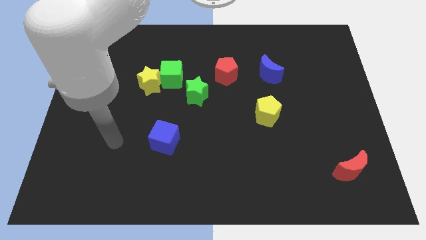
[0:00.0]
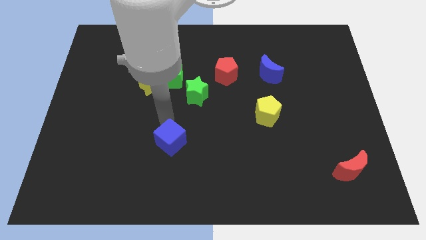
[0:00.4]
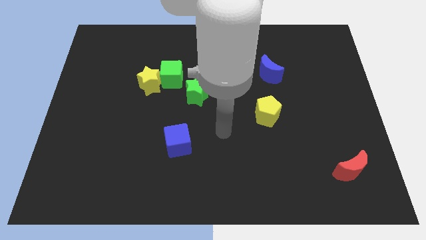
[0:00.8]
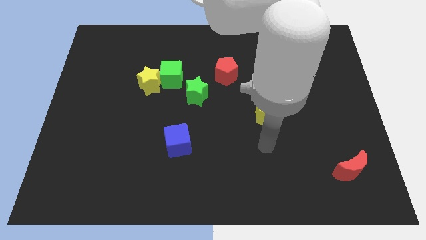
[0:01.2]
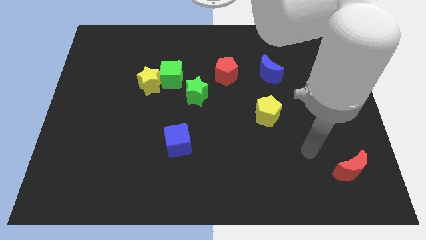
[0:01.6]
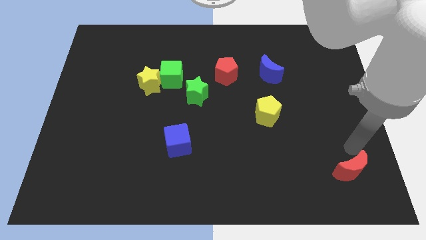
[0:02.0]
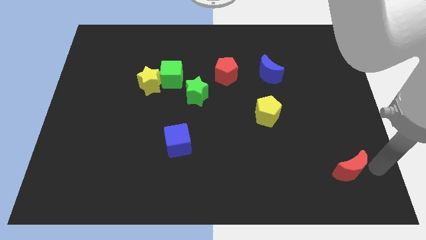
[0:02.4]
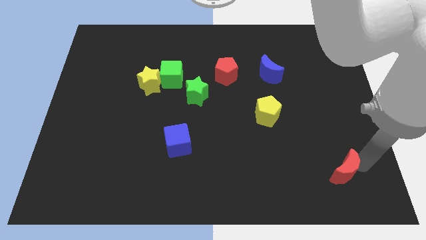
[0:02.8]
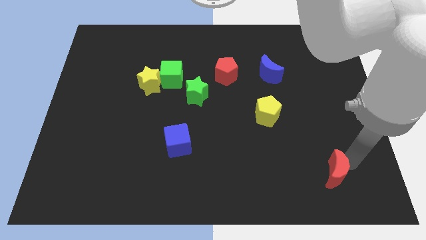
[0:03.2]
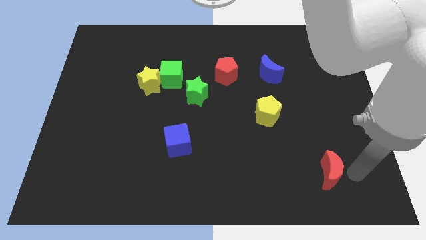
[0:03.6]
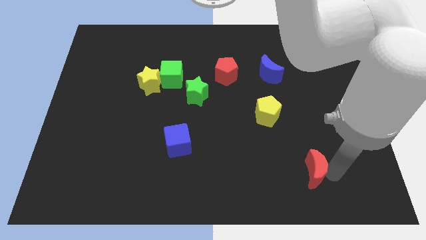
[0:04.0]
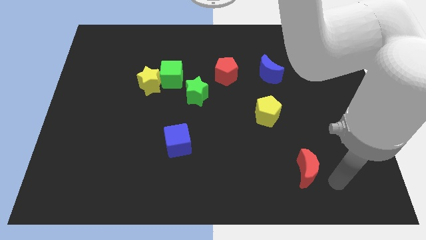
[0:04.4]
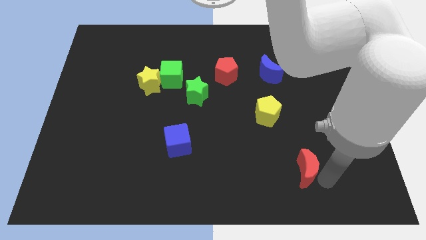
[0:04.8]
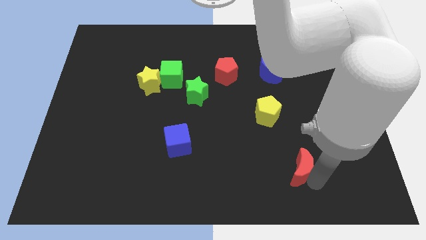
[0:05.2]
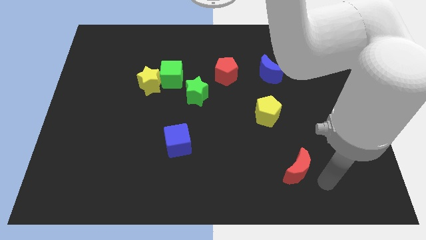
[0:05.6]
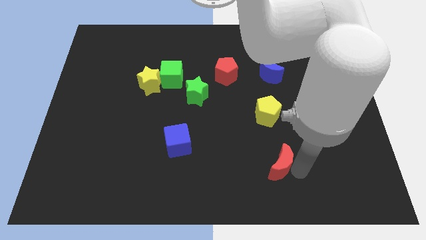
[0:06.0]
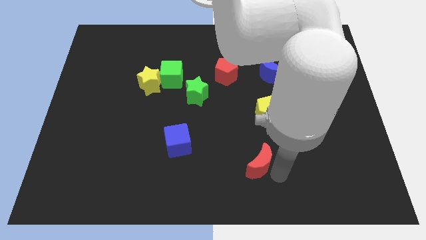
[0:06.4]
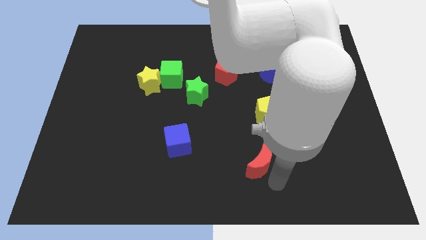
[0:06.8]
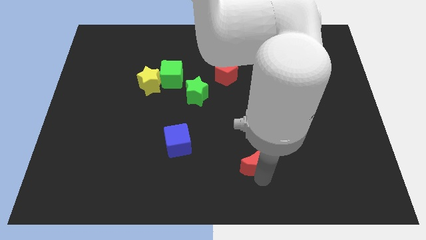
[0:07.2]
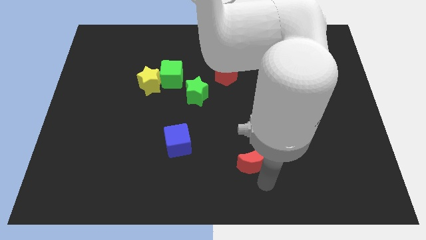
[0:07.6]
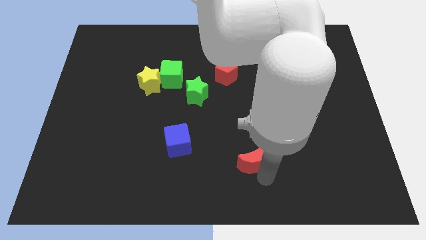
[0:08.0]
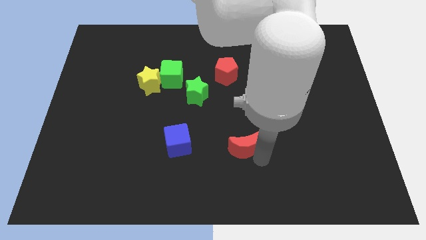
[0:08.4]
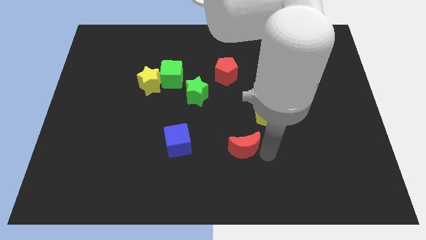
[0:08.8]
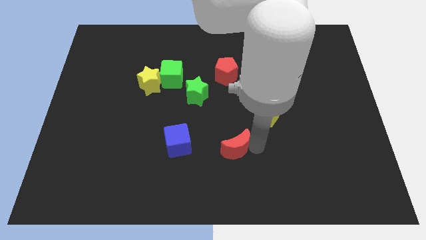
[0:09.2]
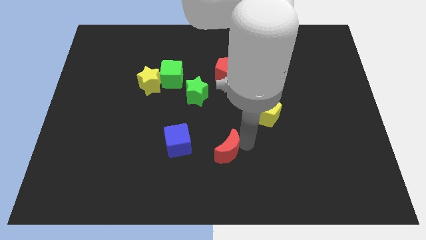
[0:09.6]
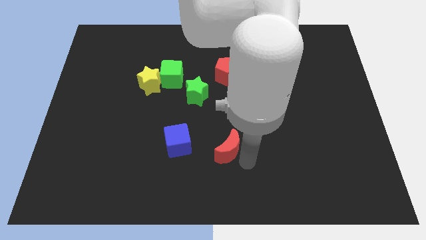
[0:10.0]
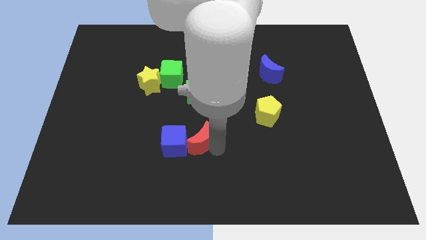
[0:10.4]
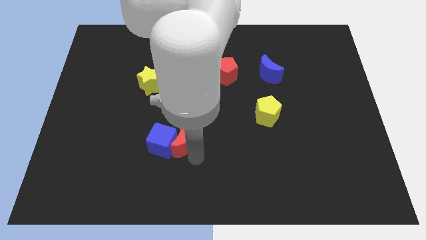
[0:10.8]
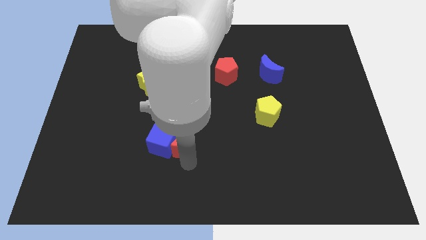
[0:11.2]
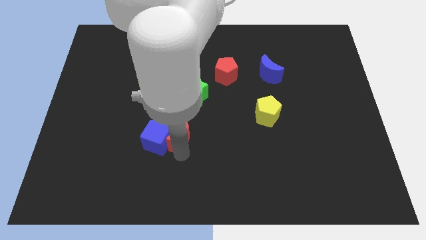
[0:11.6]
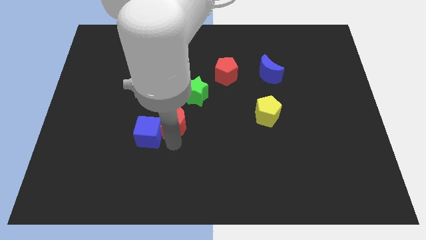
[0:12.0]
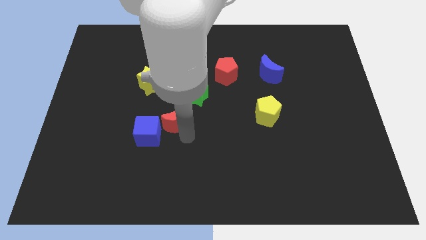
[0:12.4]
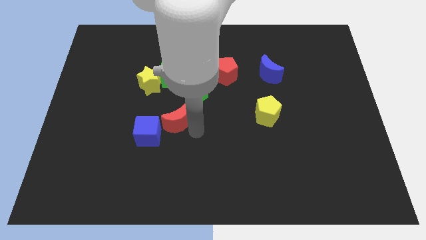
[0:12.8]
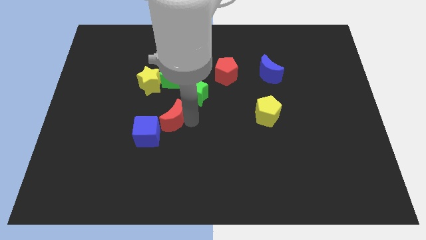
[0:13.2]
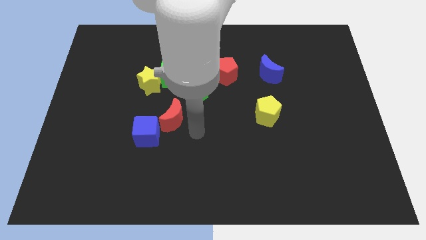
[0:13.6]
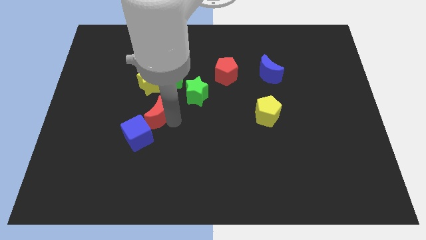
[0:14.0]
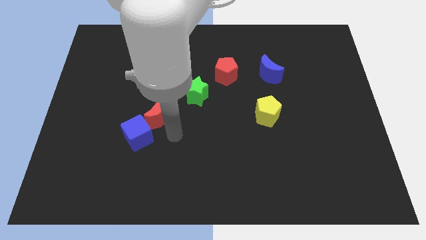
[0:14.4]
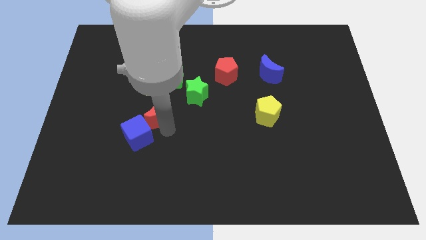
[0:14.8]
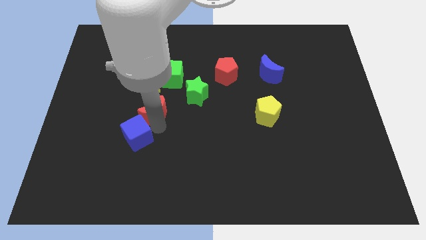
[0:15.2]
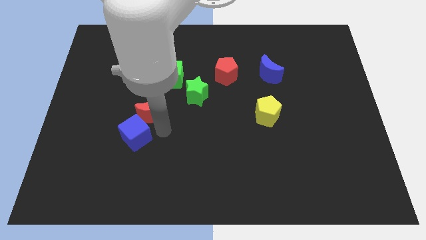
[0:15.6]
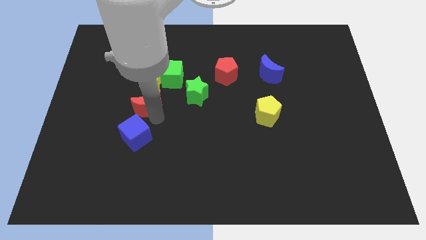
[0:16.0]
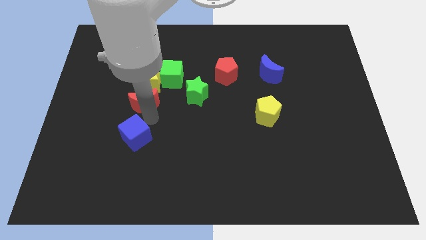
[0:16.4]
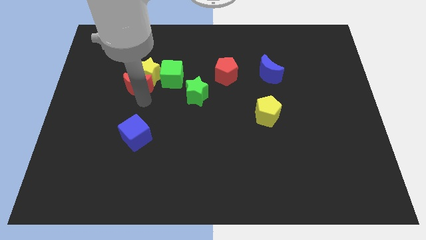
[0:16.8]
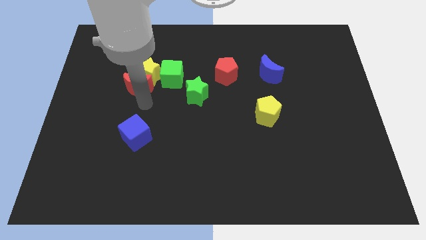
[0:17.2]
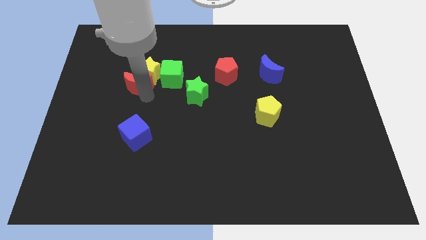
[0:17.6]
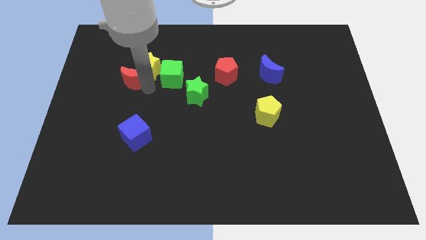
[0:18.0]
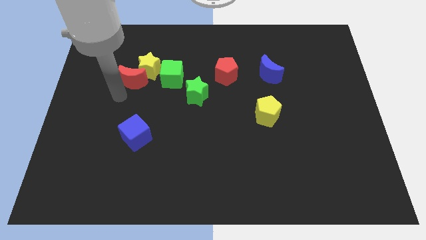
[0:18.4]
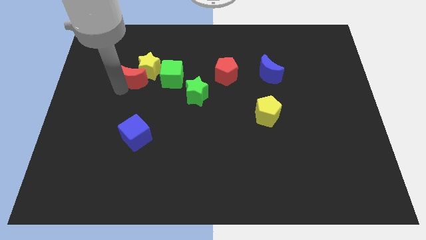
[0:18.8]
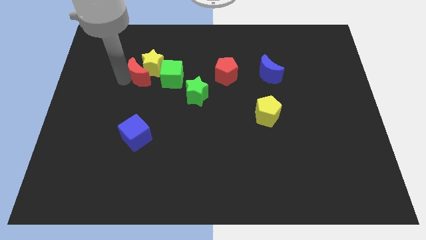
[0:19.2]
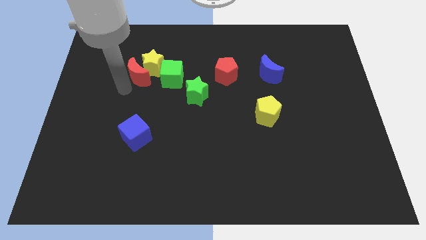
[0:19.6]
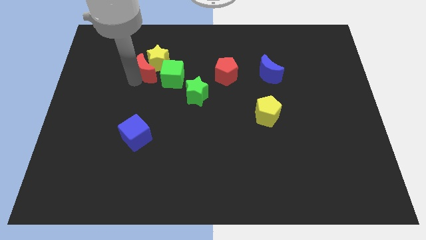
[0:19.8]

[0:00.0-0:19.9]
slide the red moon diagonally up and to the left of the green cube

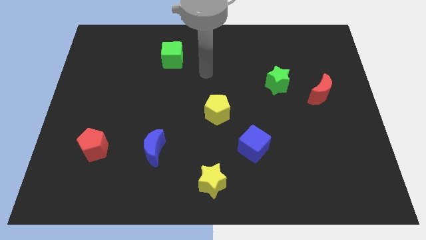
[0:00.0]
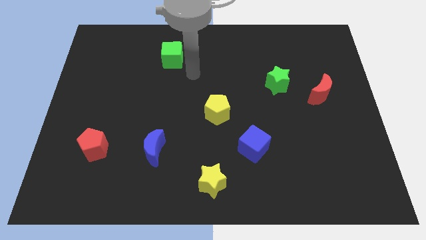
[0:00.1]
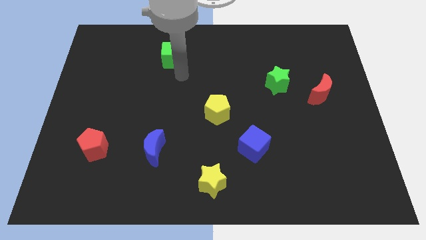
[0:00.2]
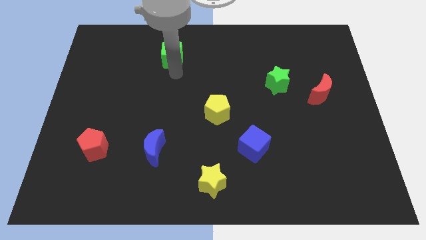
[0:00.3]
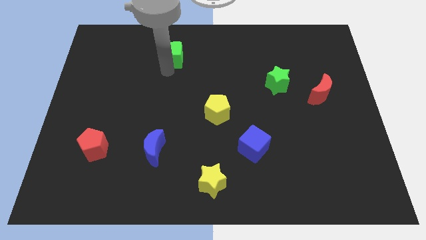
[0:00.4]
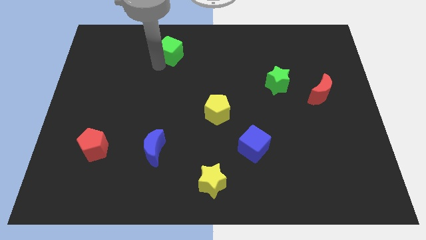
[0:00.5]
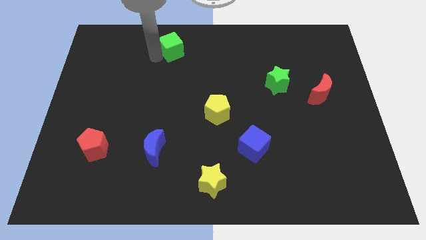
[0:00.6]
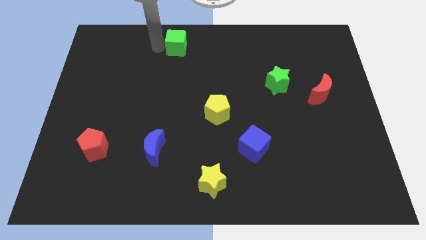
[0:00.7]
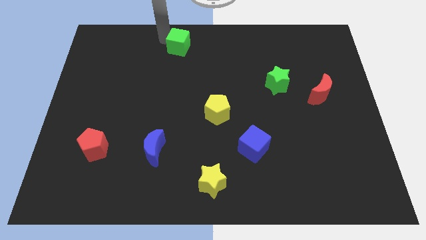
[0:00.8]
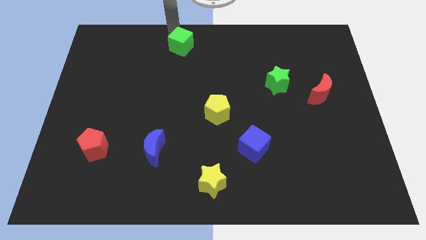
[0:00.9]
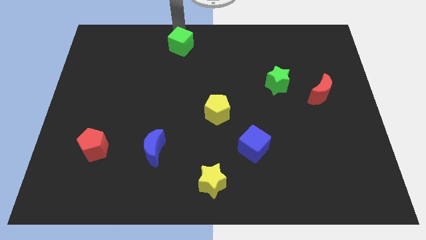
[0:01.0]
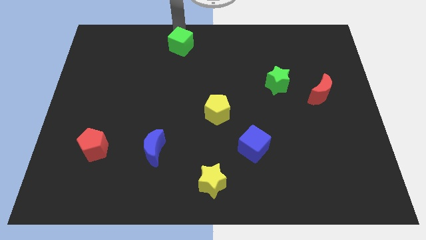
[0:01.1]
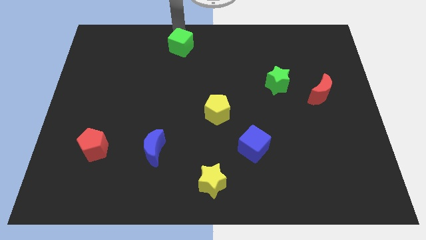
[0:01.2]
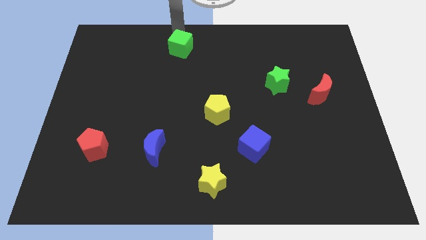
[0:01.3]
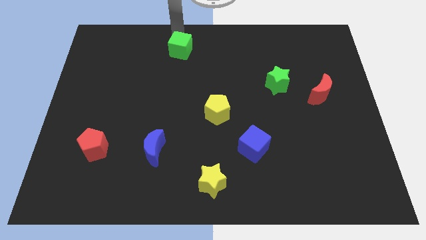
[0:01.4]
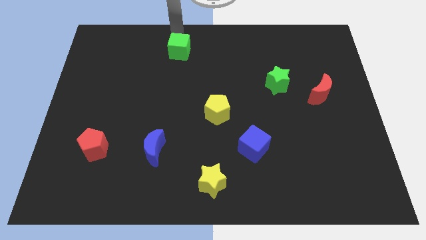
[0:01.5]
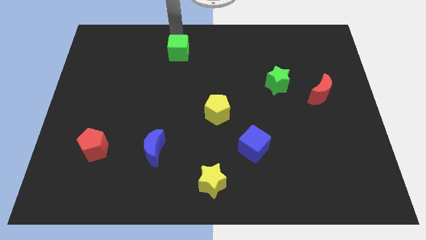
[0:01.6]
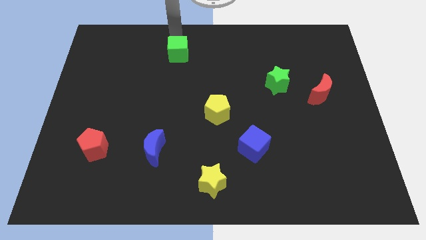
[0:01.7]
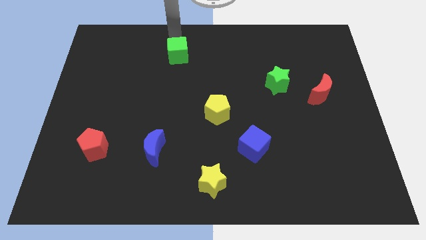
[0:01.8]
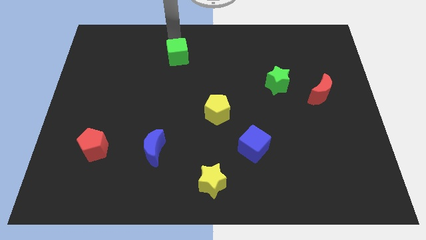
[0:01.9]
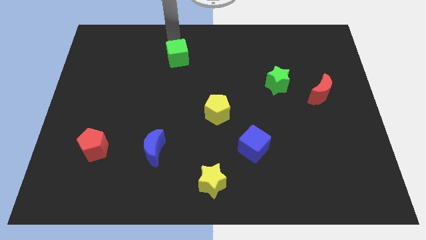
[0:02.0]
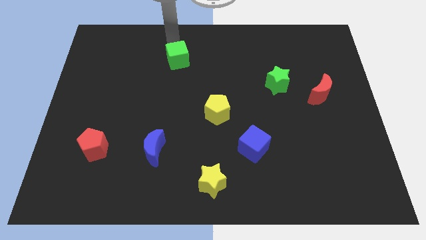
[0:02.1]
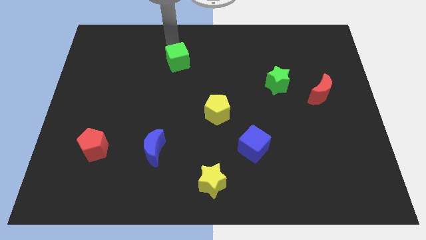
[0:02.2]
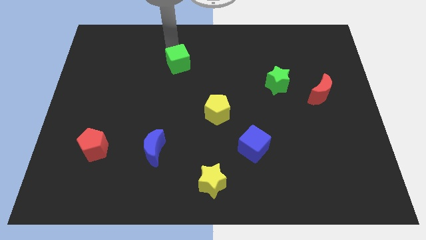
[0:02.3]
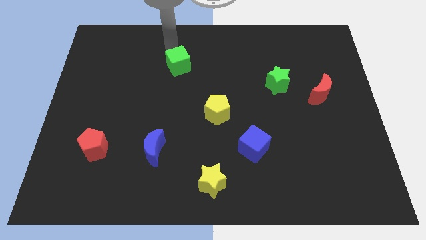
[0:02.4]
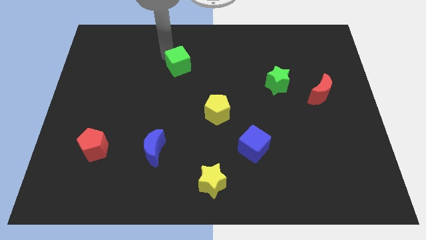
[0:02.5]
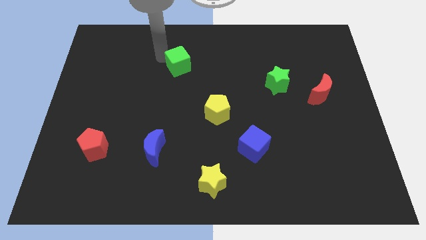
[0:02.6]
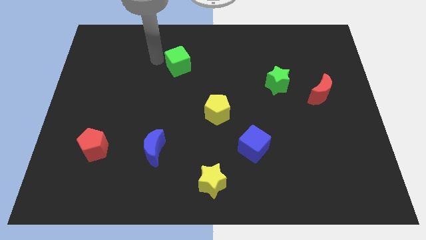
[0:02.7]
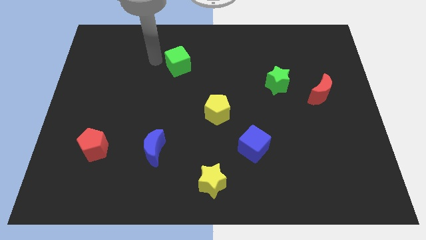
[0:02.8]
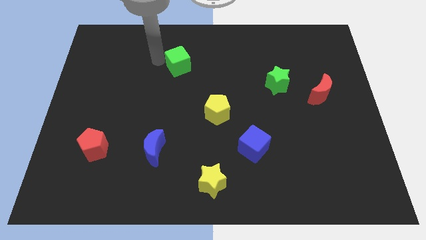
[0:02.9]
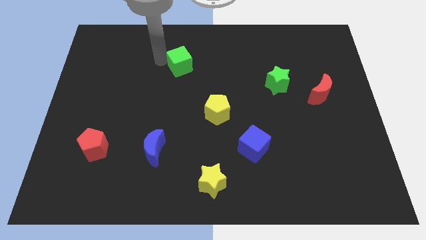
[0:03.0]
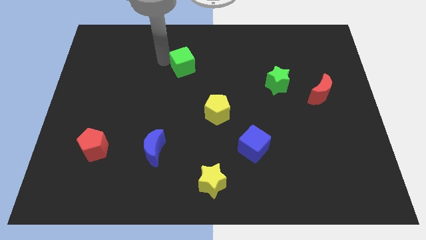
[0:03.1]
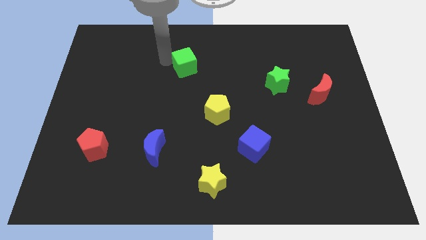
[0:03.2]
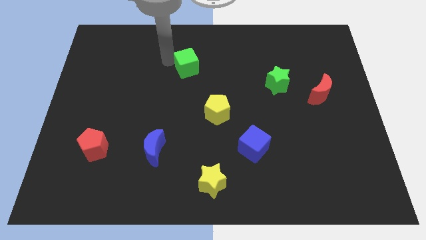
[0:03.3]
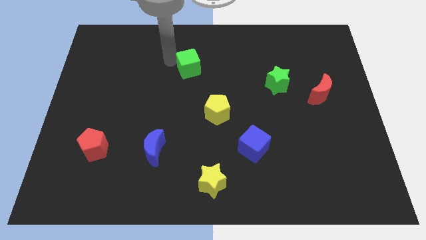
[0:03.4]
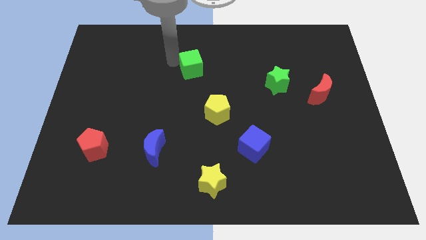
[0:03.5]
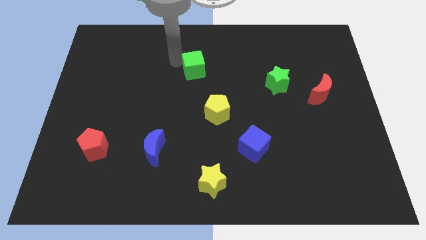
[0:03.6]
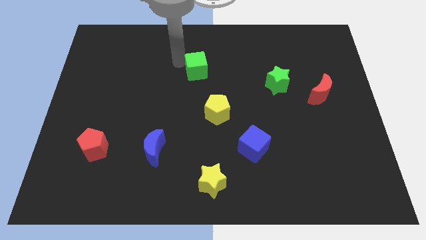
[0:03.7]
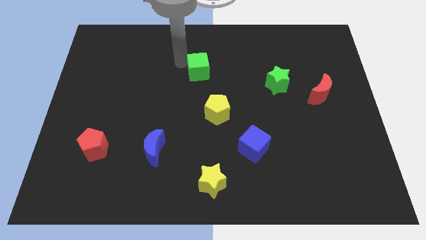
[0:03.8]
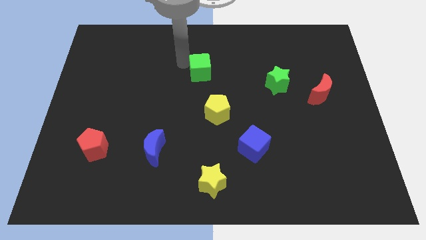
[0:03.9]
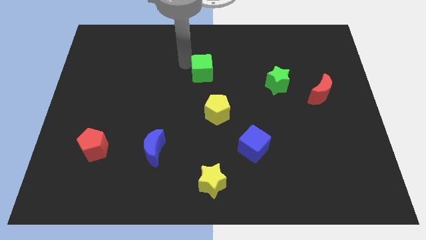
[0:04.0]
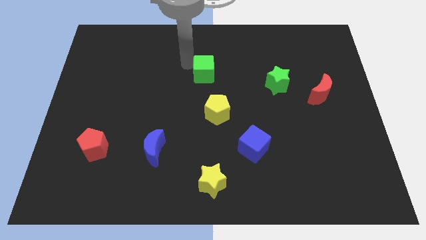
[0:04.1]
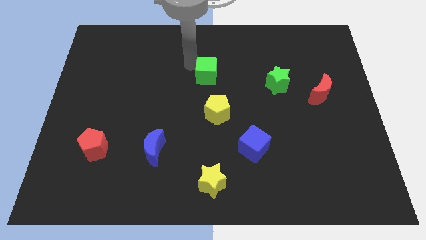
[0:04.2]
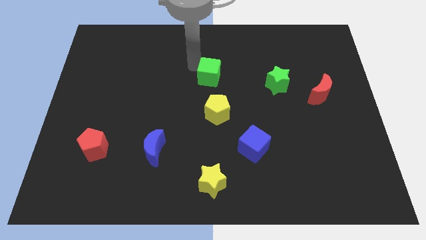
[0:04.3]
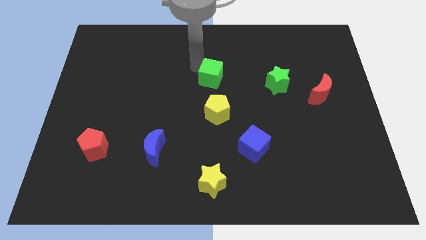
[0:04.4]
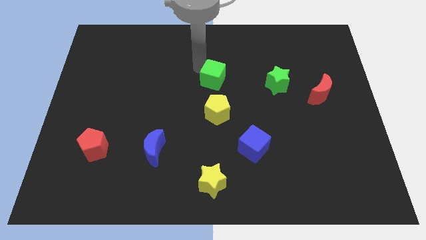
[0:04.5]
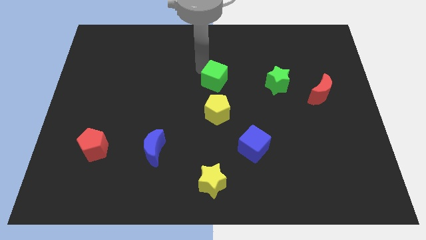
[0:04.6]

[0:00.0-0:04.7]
push the green cube just left of the green star
